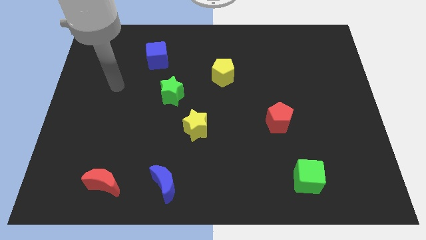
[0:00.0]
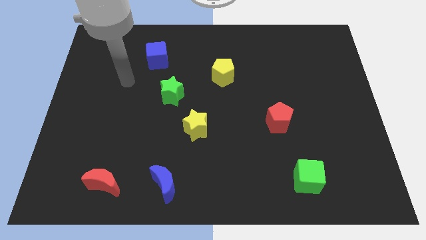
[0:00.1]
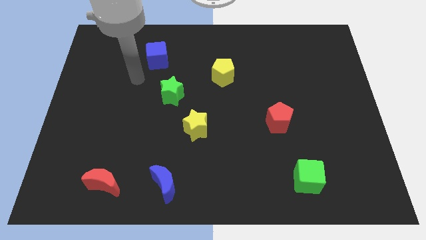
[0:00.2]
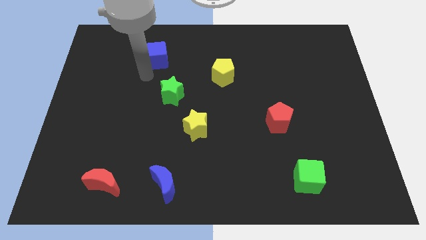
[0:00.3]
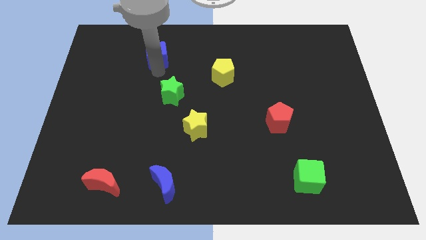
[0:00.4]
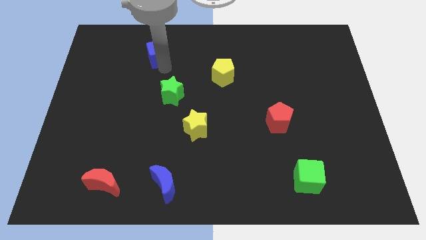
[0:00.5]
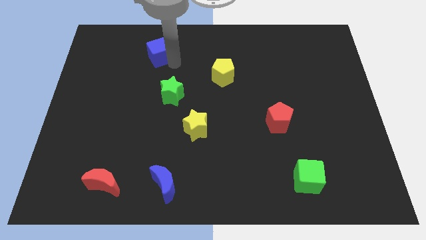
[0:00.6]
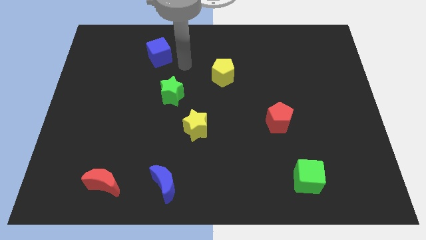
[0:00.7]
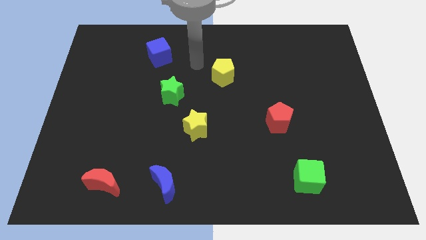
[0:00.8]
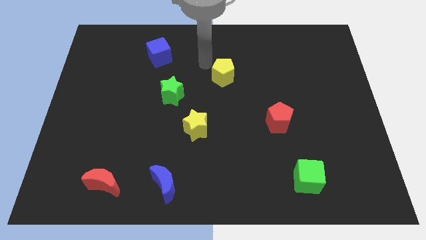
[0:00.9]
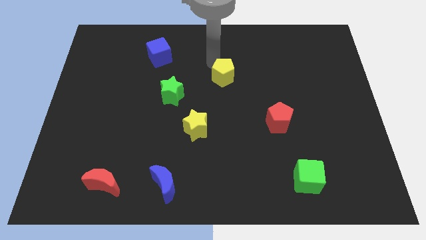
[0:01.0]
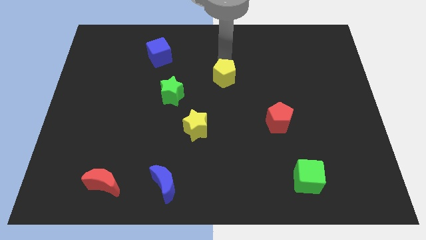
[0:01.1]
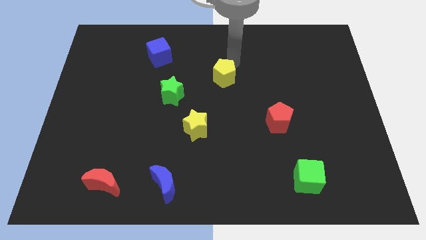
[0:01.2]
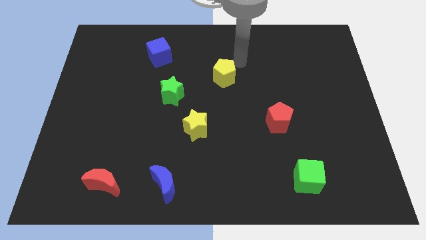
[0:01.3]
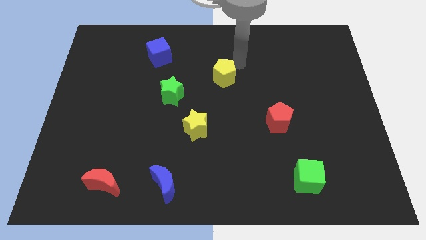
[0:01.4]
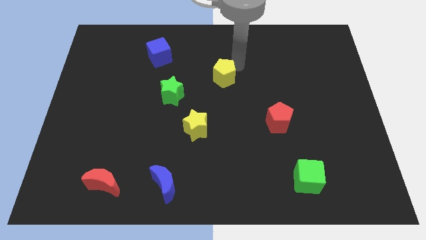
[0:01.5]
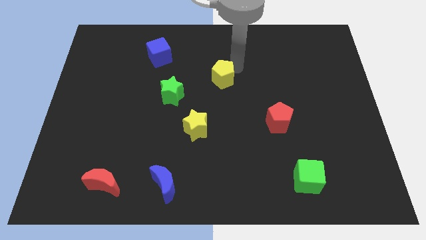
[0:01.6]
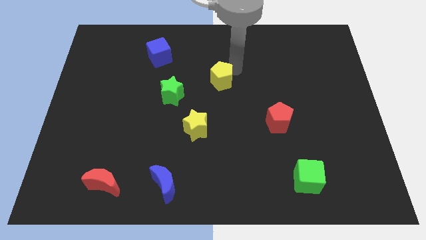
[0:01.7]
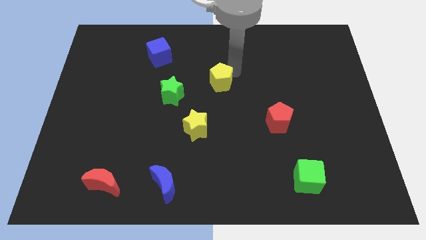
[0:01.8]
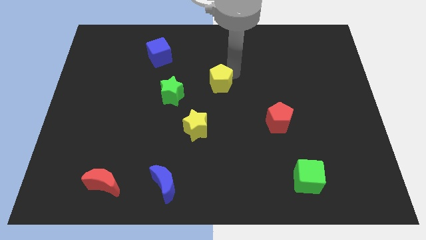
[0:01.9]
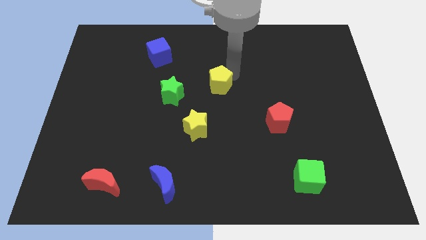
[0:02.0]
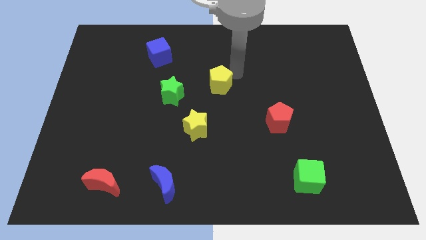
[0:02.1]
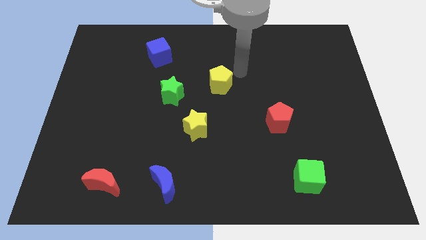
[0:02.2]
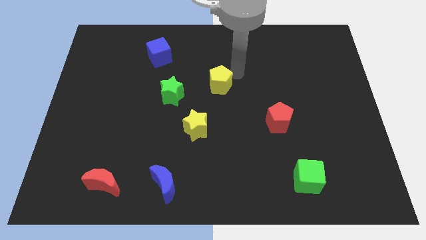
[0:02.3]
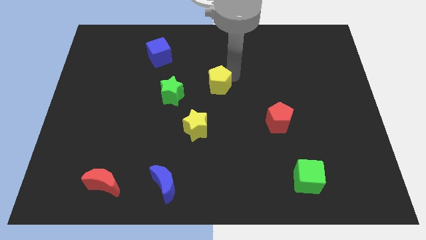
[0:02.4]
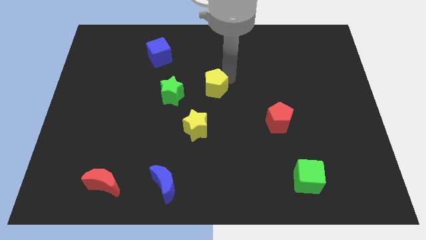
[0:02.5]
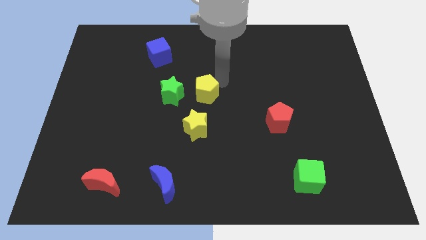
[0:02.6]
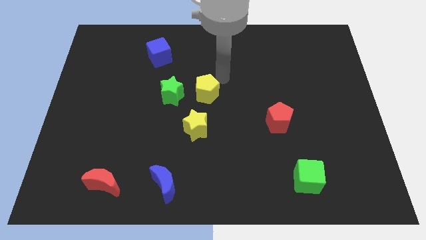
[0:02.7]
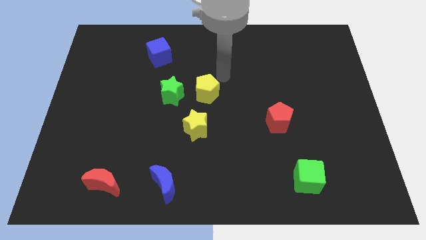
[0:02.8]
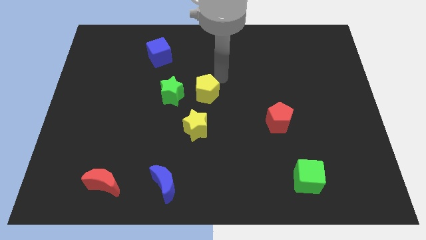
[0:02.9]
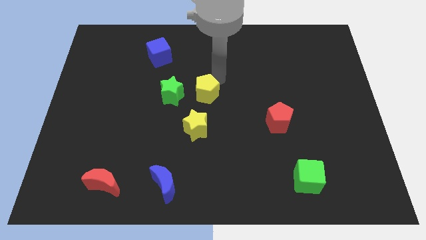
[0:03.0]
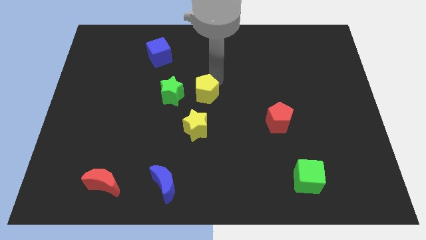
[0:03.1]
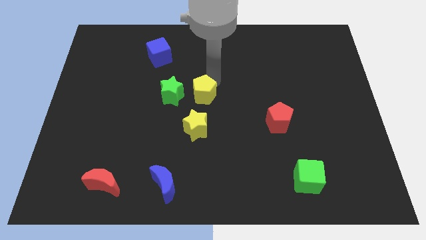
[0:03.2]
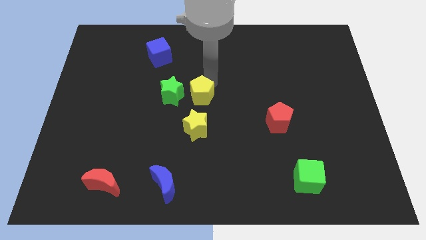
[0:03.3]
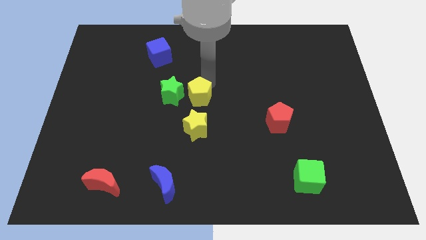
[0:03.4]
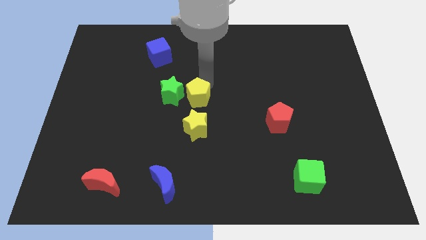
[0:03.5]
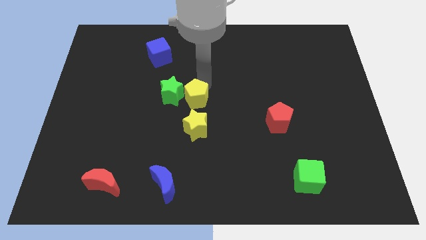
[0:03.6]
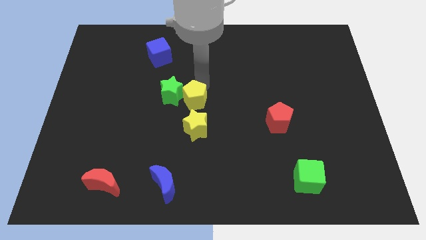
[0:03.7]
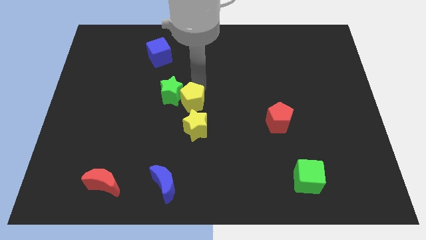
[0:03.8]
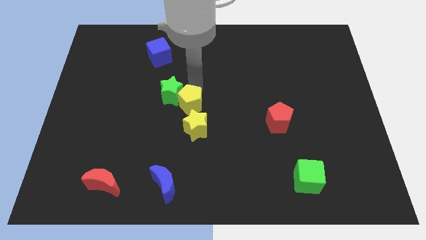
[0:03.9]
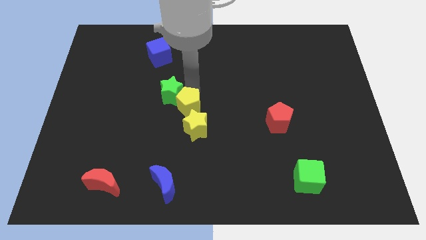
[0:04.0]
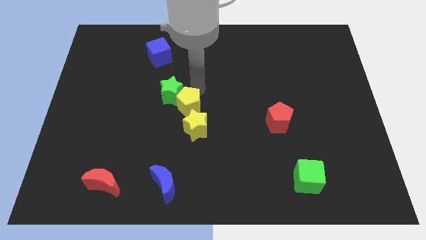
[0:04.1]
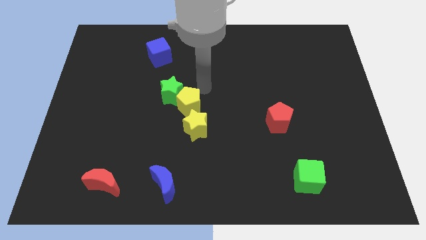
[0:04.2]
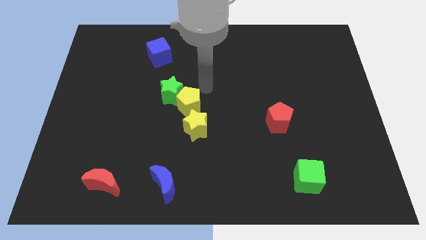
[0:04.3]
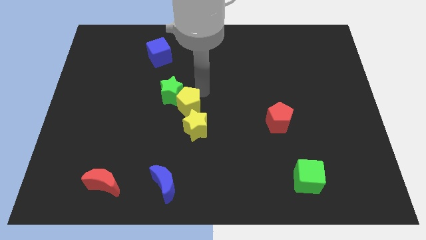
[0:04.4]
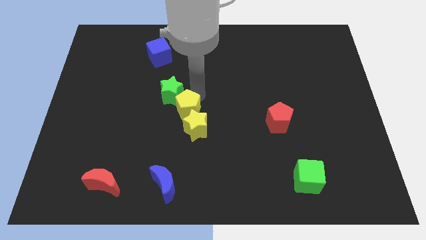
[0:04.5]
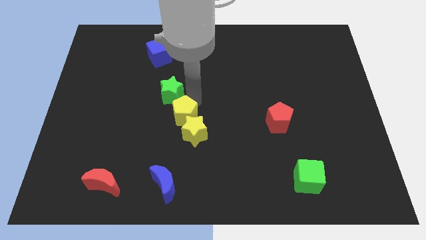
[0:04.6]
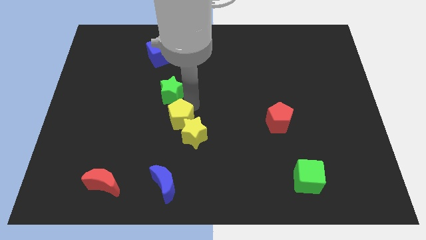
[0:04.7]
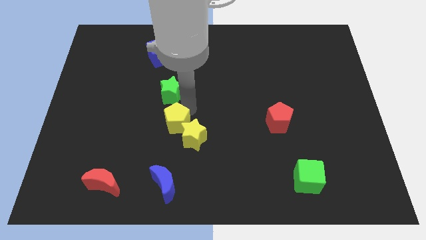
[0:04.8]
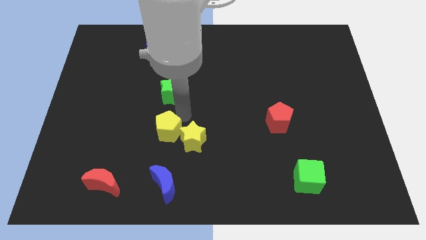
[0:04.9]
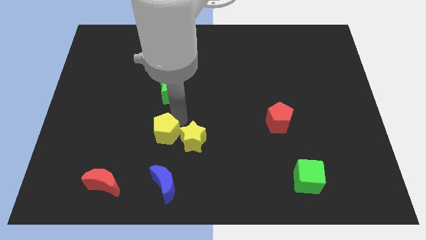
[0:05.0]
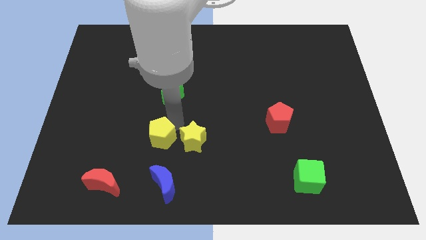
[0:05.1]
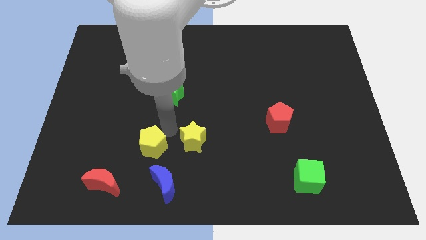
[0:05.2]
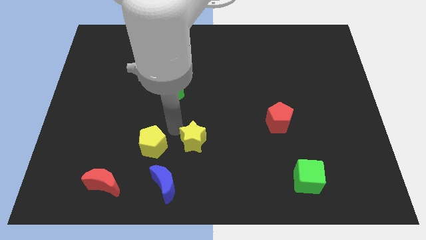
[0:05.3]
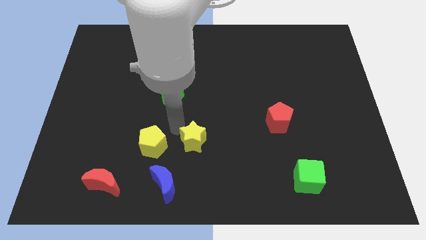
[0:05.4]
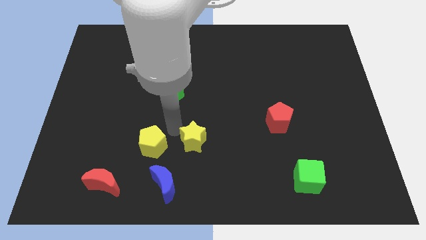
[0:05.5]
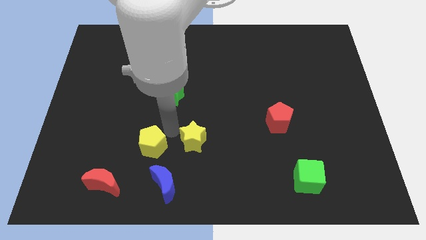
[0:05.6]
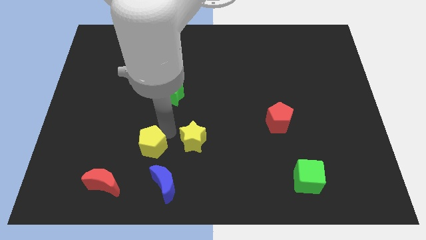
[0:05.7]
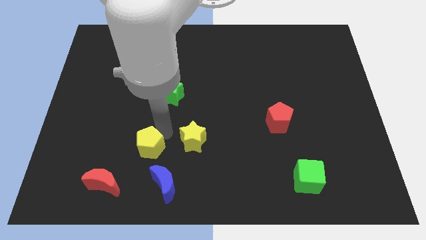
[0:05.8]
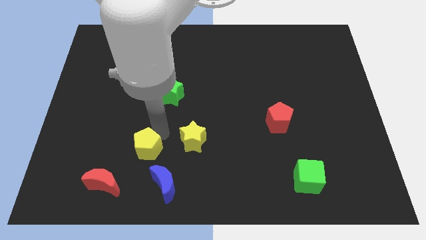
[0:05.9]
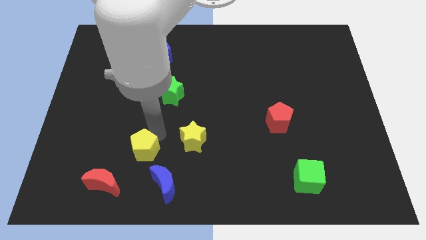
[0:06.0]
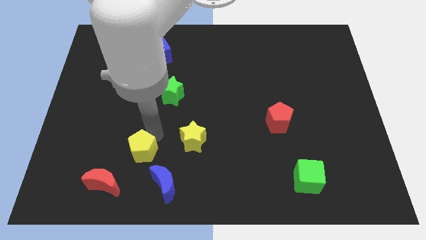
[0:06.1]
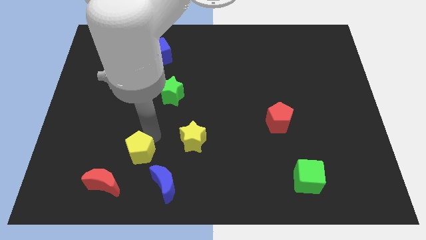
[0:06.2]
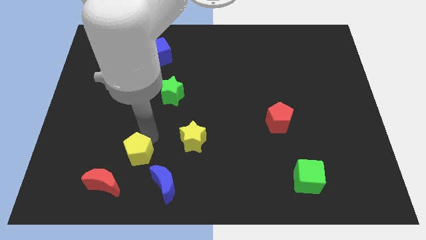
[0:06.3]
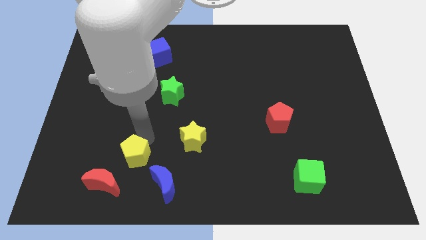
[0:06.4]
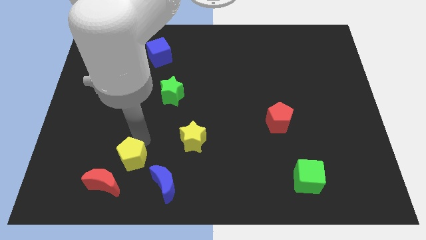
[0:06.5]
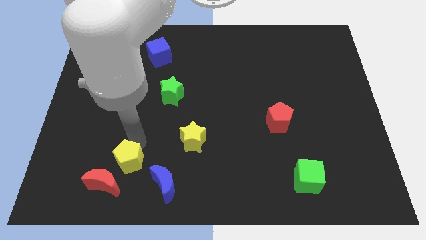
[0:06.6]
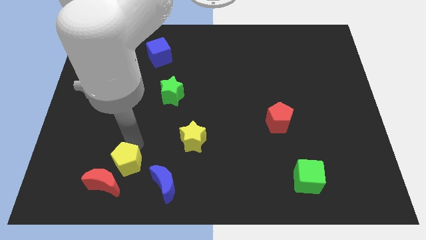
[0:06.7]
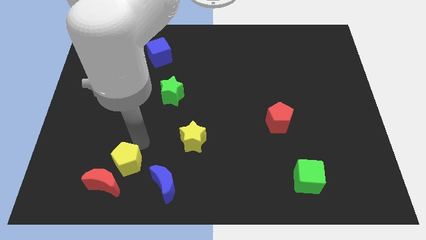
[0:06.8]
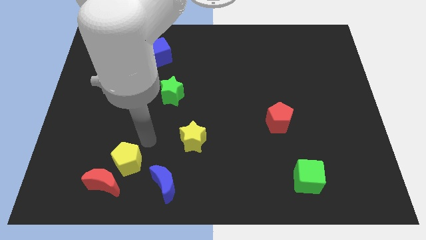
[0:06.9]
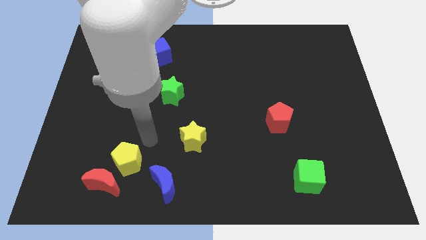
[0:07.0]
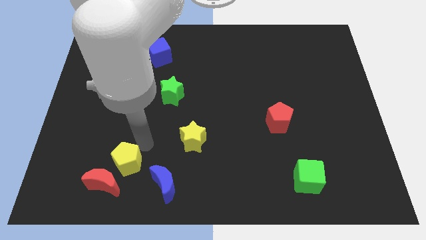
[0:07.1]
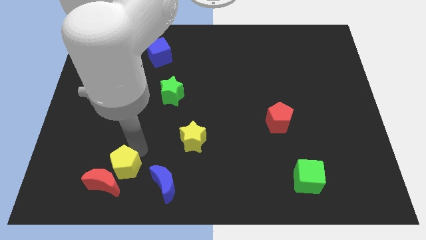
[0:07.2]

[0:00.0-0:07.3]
put the yellow pentagon next to the red moon
